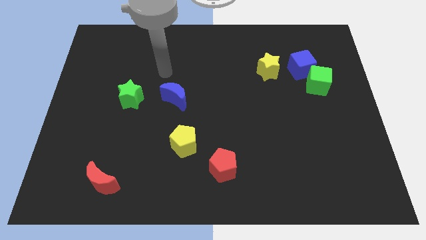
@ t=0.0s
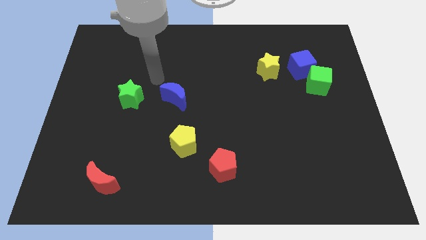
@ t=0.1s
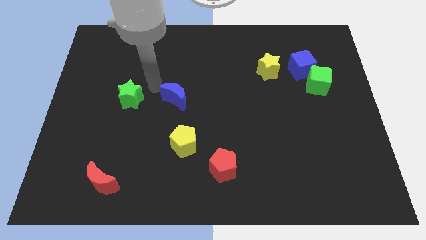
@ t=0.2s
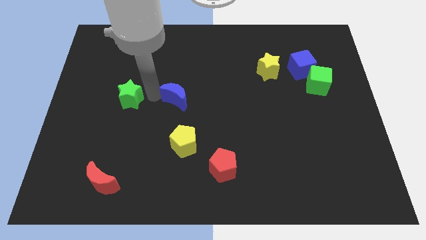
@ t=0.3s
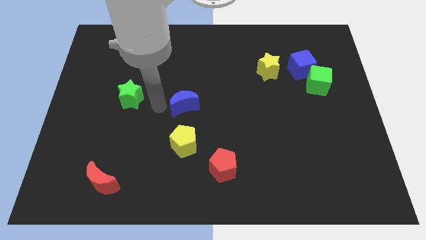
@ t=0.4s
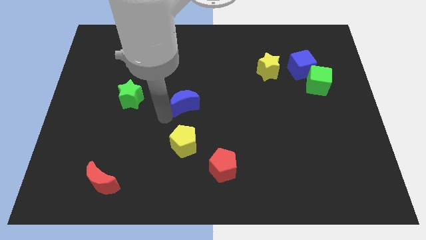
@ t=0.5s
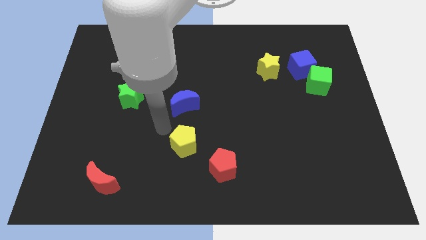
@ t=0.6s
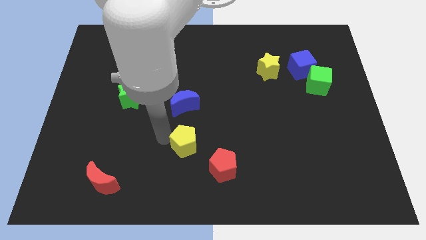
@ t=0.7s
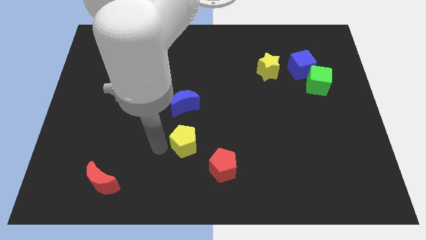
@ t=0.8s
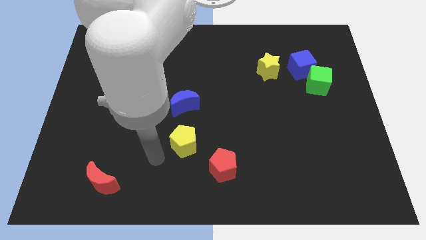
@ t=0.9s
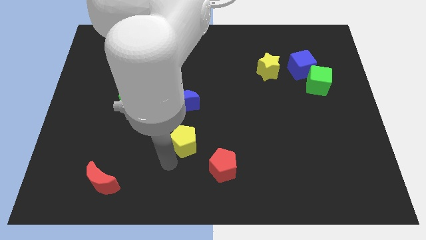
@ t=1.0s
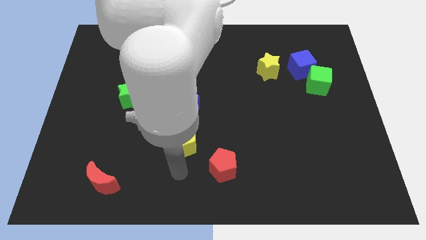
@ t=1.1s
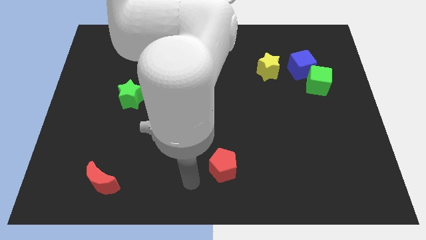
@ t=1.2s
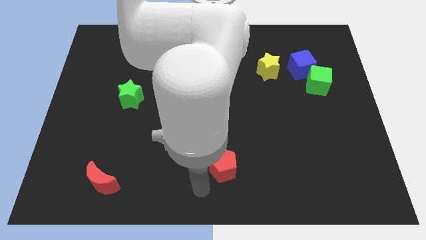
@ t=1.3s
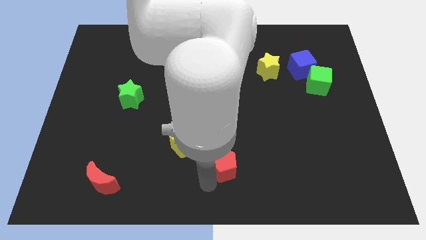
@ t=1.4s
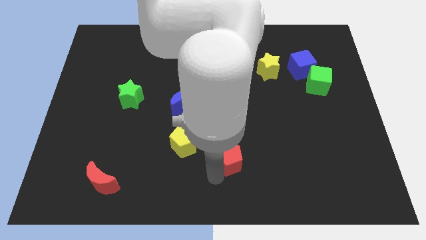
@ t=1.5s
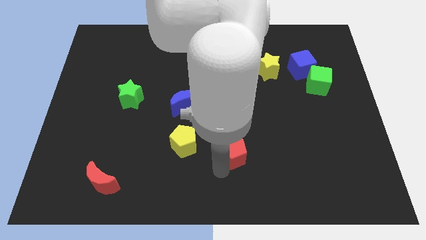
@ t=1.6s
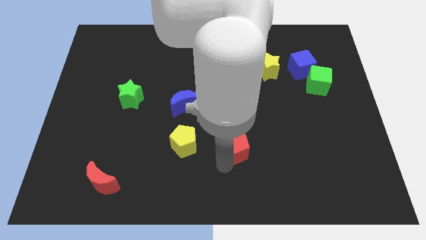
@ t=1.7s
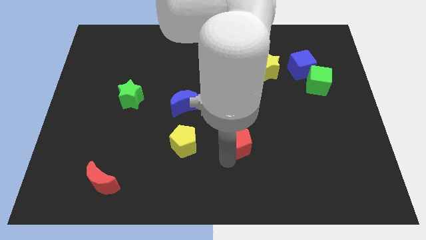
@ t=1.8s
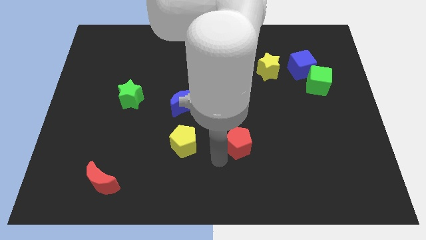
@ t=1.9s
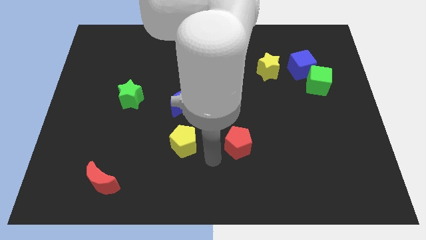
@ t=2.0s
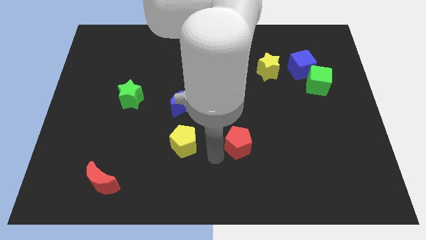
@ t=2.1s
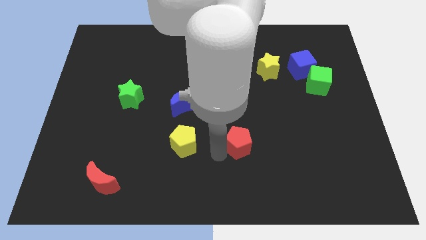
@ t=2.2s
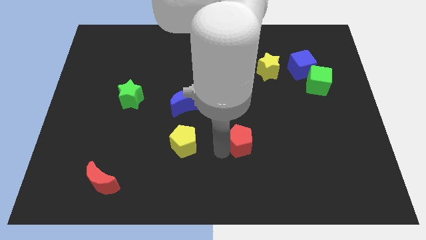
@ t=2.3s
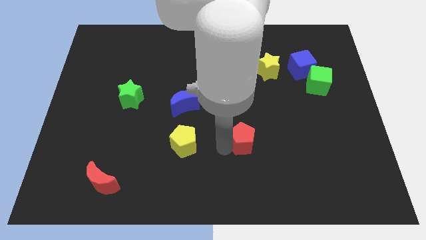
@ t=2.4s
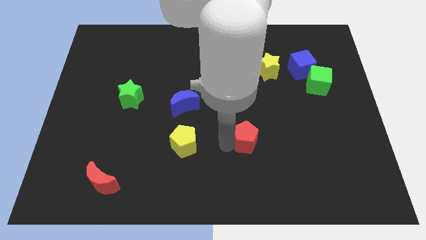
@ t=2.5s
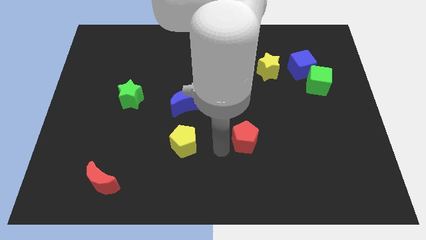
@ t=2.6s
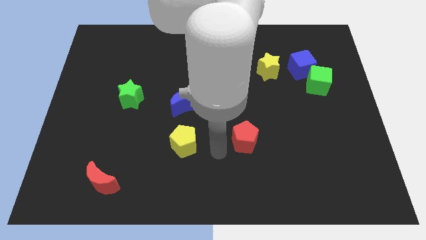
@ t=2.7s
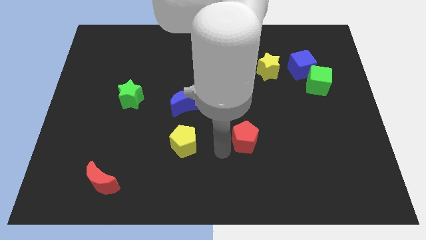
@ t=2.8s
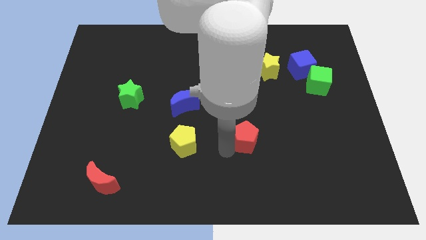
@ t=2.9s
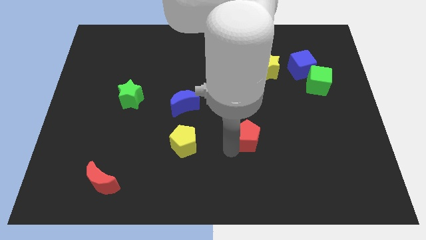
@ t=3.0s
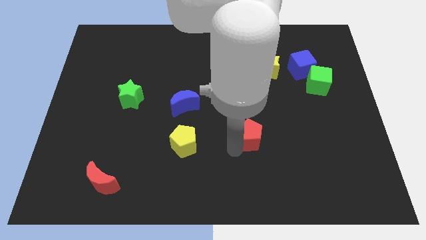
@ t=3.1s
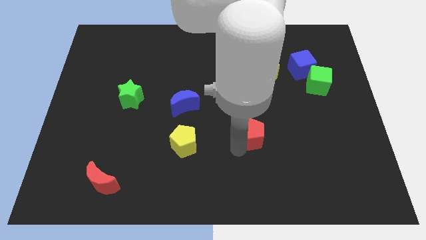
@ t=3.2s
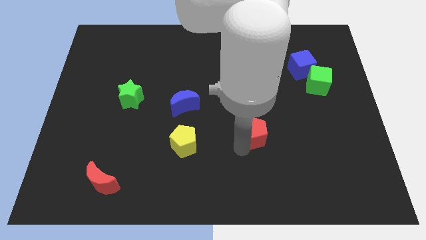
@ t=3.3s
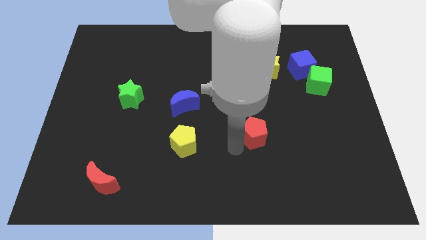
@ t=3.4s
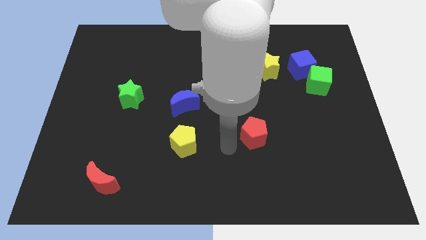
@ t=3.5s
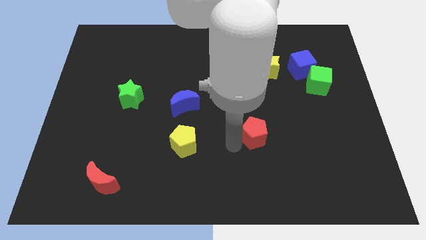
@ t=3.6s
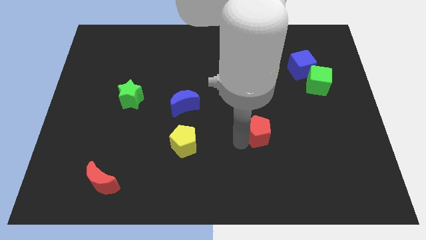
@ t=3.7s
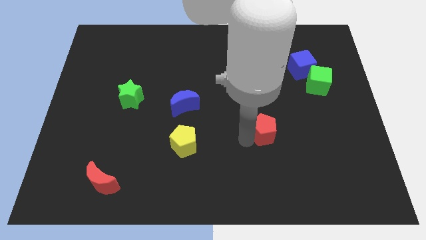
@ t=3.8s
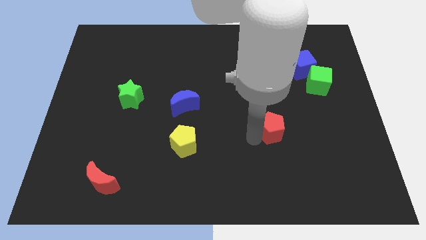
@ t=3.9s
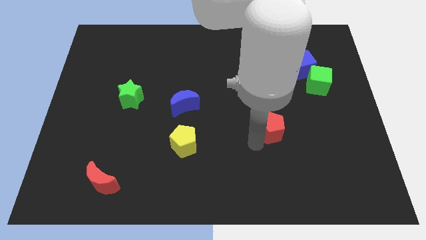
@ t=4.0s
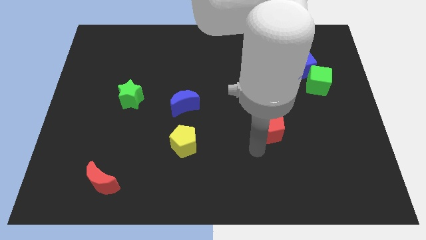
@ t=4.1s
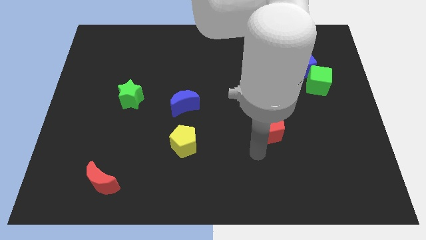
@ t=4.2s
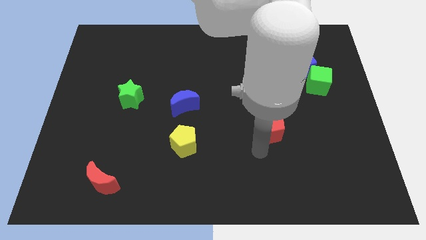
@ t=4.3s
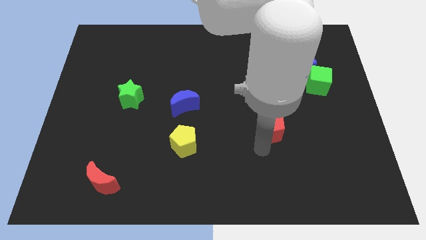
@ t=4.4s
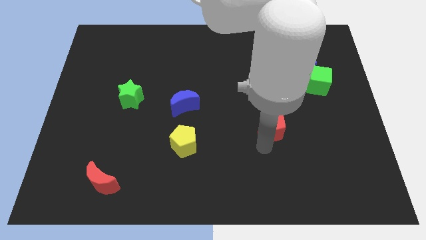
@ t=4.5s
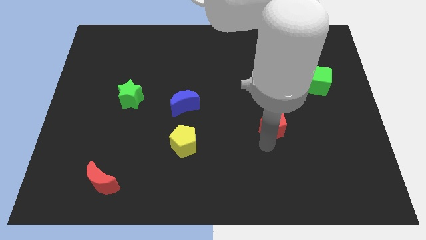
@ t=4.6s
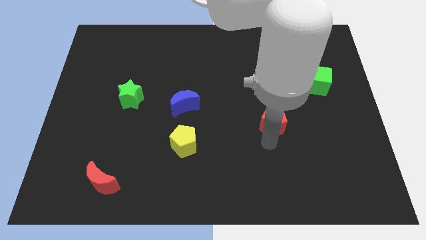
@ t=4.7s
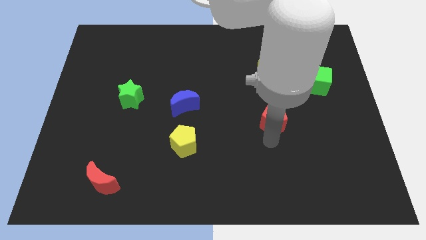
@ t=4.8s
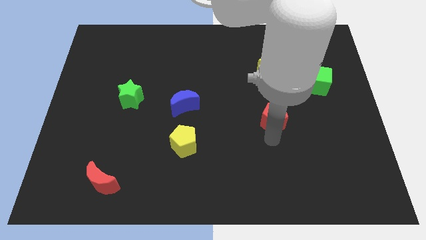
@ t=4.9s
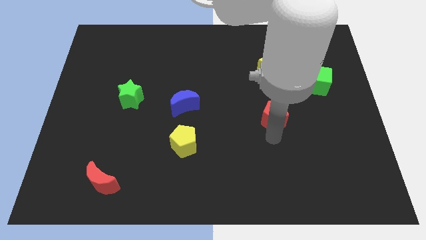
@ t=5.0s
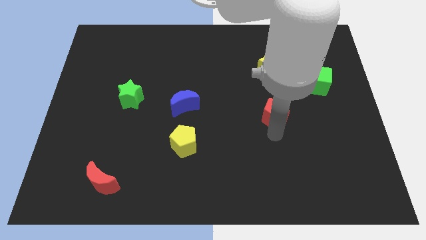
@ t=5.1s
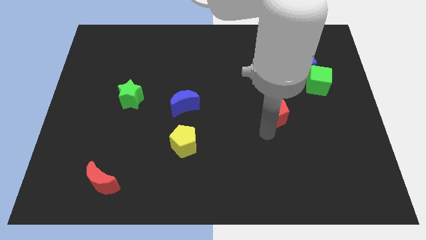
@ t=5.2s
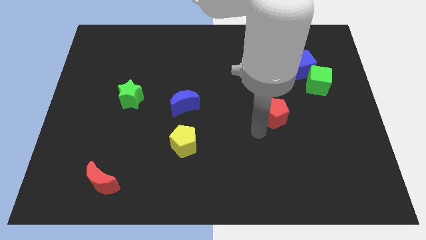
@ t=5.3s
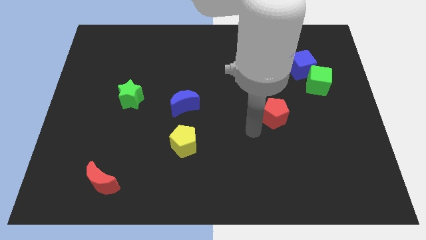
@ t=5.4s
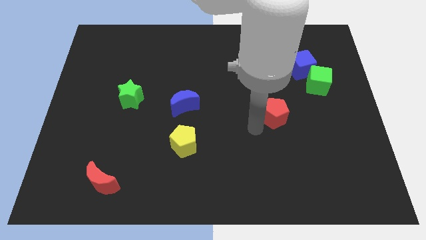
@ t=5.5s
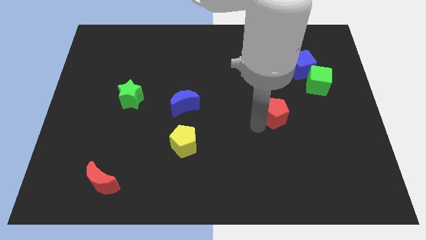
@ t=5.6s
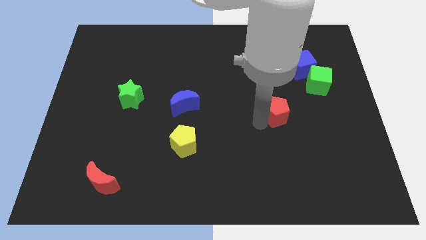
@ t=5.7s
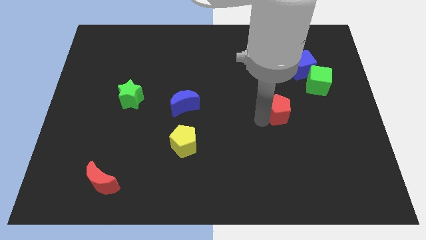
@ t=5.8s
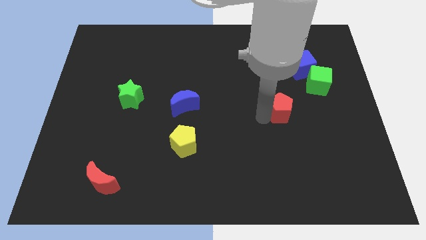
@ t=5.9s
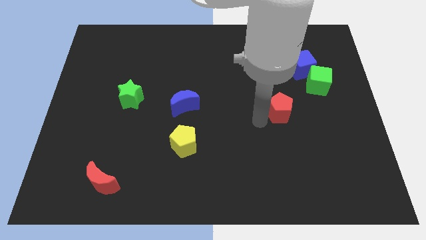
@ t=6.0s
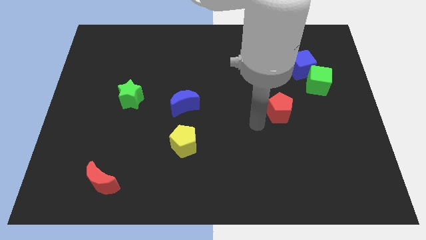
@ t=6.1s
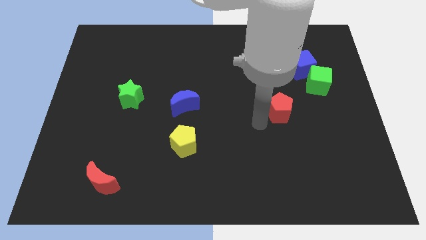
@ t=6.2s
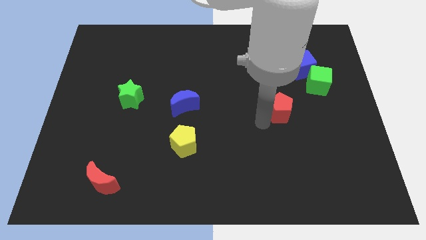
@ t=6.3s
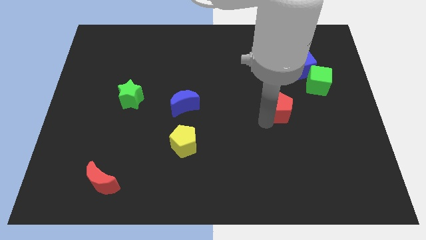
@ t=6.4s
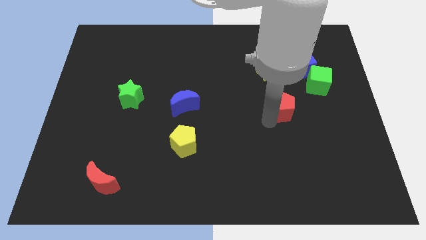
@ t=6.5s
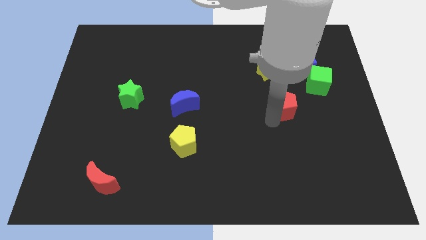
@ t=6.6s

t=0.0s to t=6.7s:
put the red pentagon to the bottom left of the green cube
